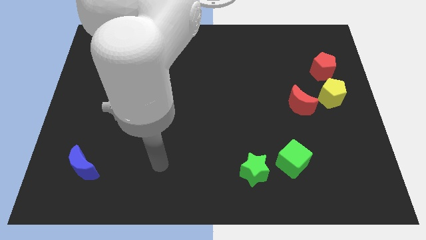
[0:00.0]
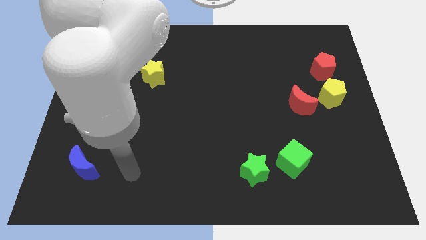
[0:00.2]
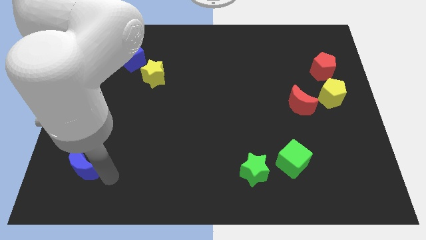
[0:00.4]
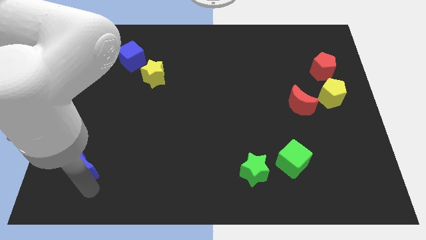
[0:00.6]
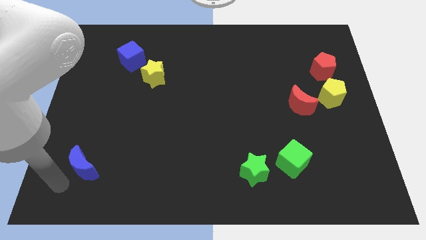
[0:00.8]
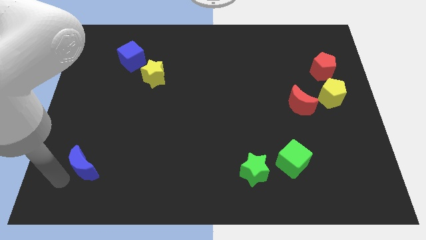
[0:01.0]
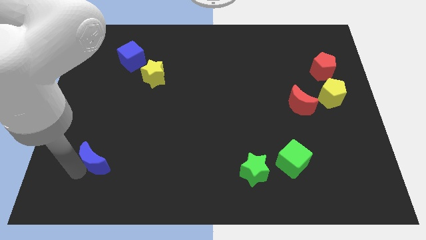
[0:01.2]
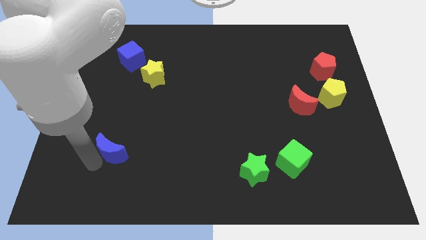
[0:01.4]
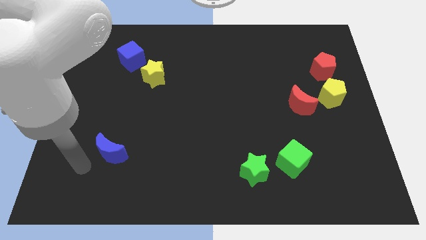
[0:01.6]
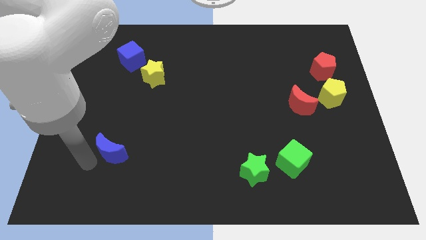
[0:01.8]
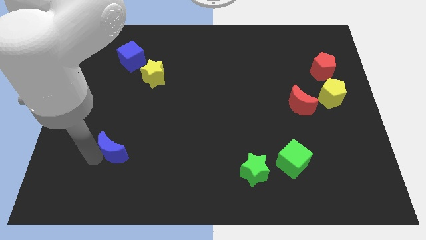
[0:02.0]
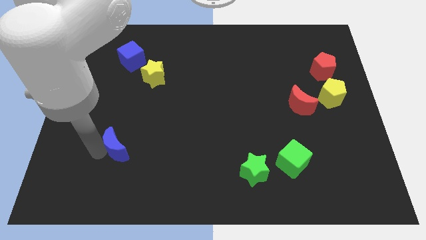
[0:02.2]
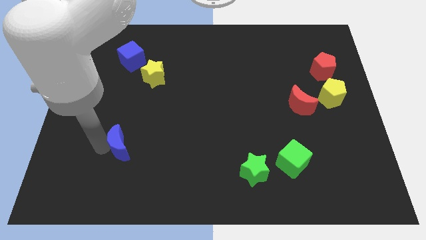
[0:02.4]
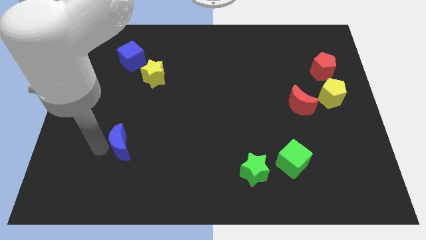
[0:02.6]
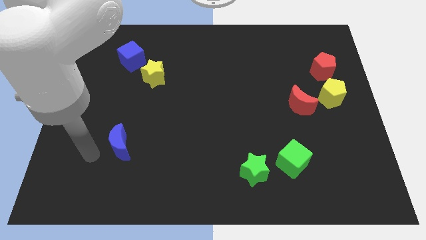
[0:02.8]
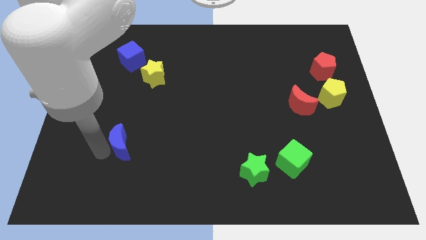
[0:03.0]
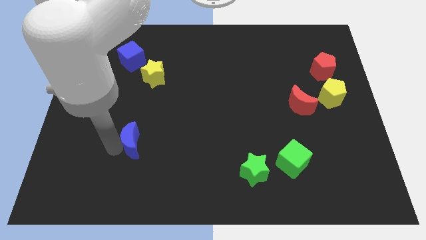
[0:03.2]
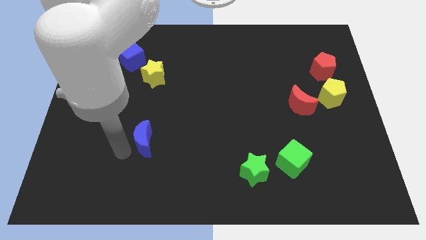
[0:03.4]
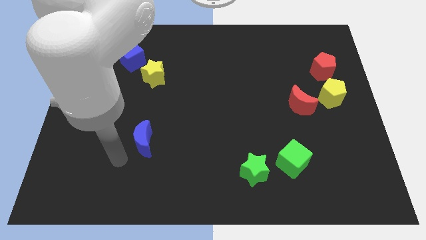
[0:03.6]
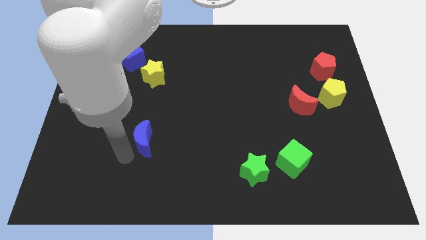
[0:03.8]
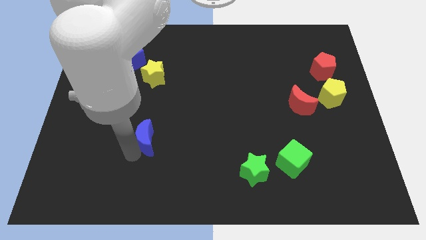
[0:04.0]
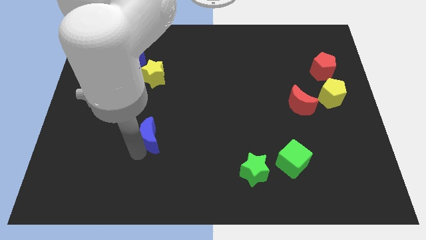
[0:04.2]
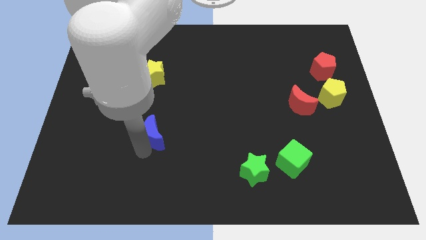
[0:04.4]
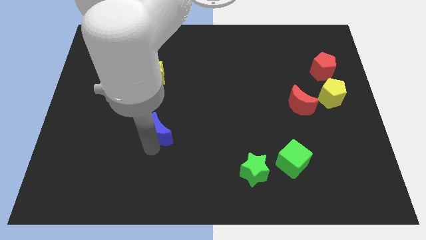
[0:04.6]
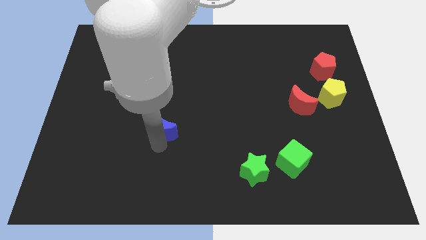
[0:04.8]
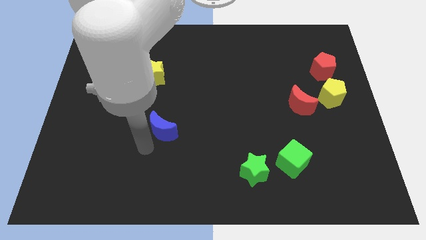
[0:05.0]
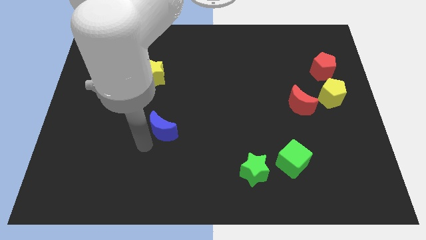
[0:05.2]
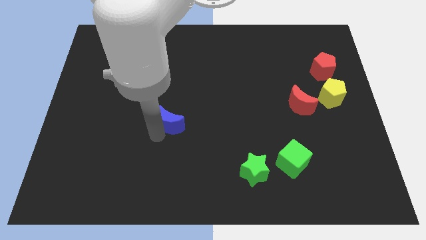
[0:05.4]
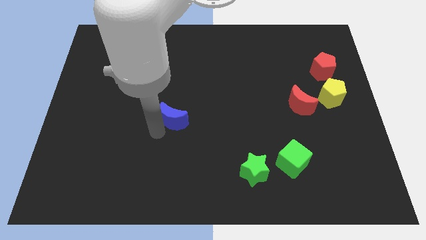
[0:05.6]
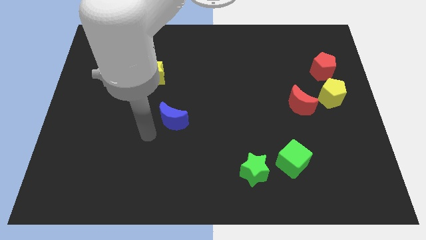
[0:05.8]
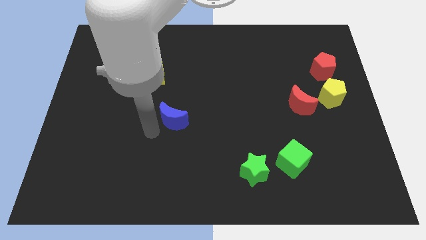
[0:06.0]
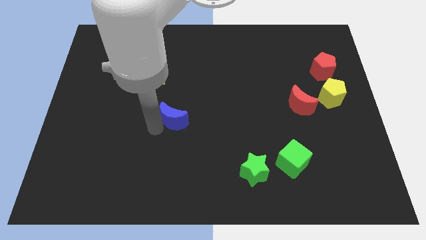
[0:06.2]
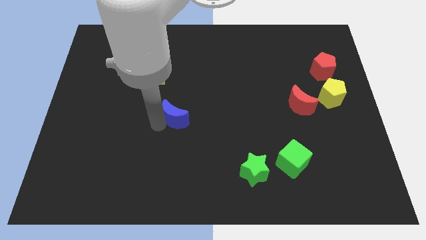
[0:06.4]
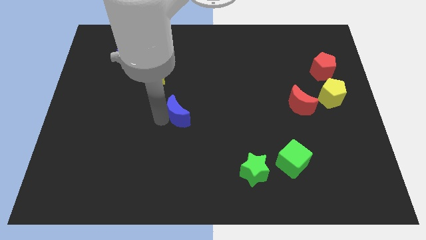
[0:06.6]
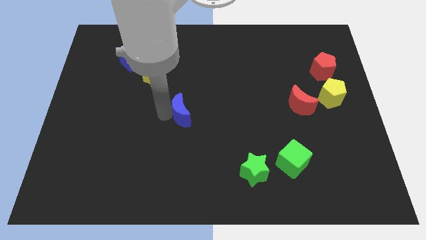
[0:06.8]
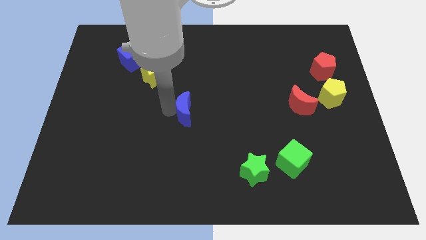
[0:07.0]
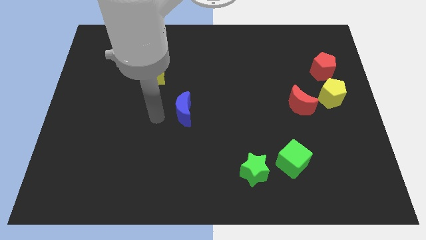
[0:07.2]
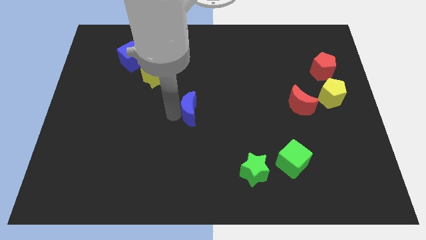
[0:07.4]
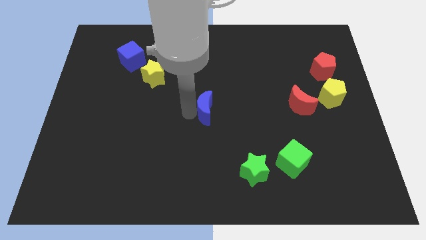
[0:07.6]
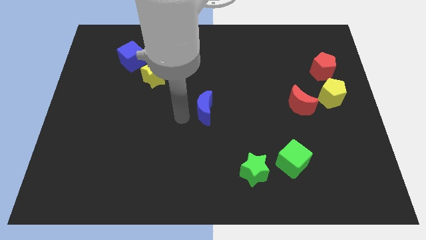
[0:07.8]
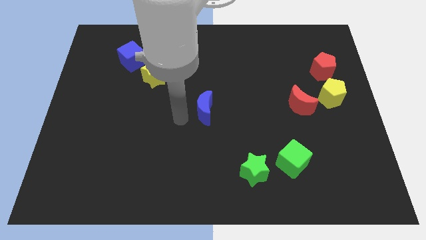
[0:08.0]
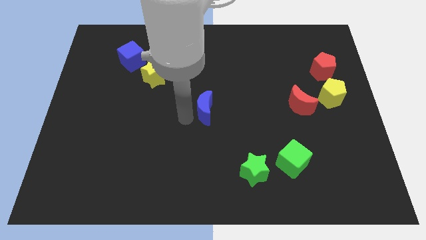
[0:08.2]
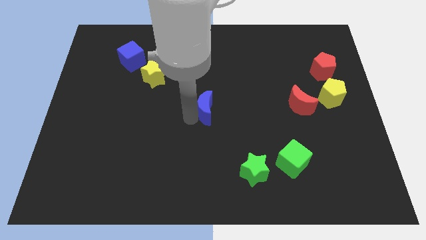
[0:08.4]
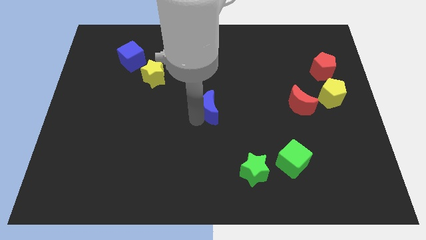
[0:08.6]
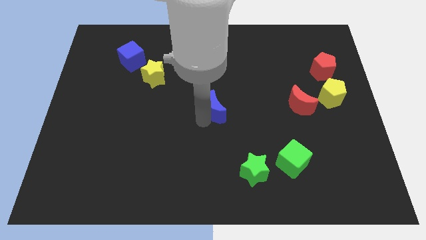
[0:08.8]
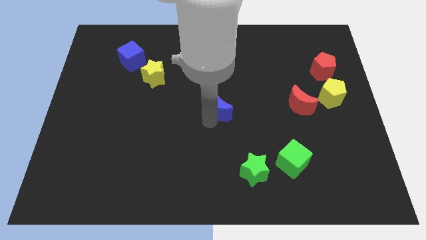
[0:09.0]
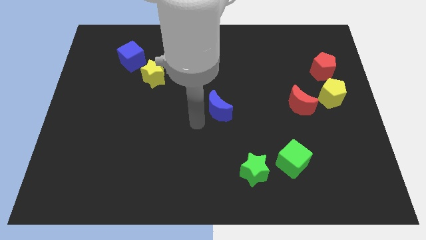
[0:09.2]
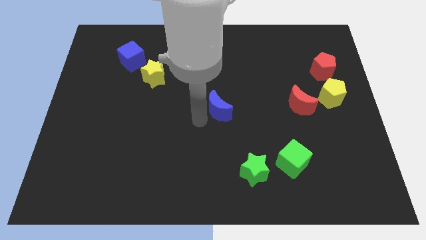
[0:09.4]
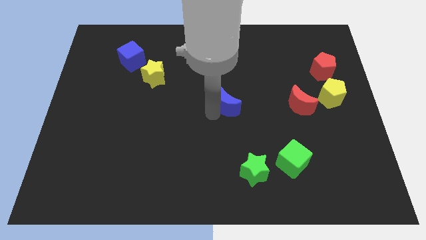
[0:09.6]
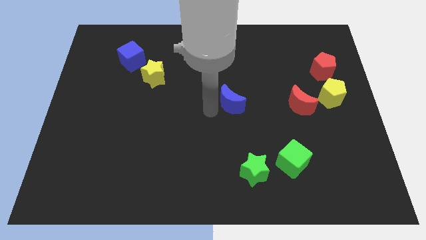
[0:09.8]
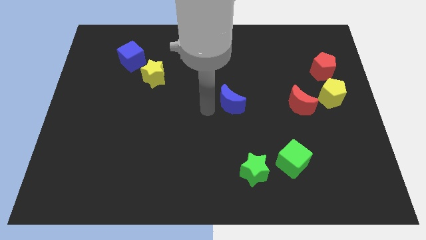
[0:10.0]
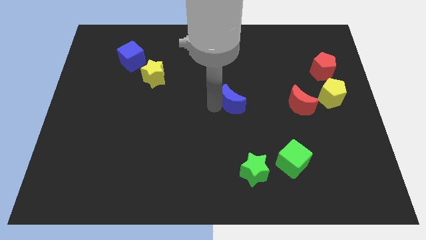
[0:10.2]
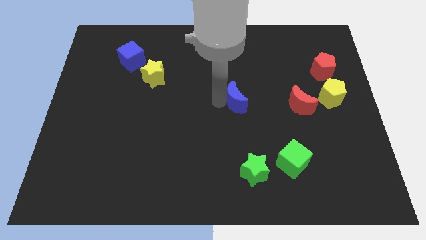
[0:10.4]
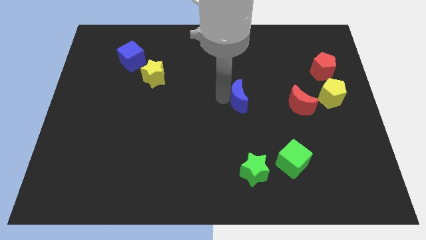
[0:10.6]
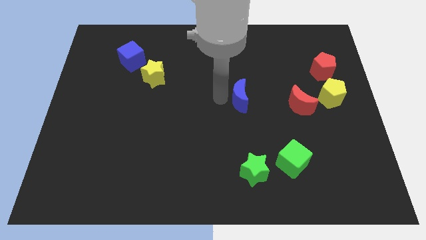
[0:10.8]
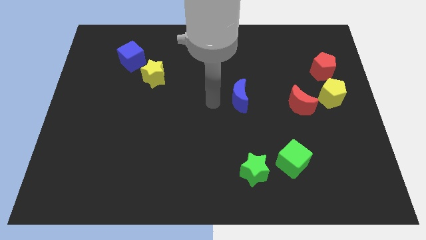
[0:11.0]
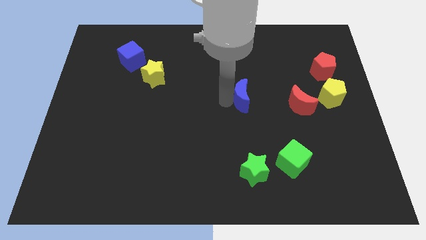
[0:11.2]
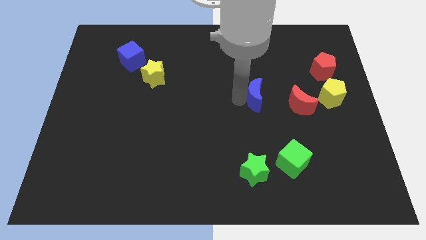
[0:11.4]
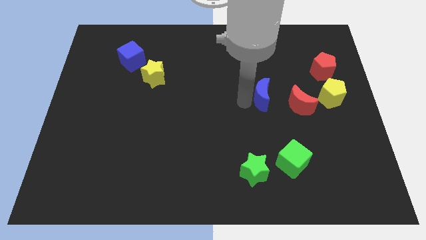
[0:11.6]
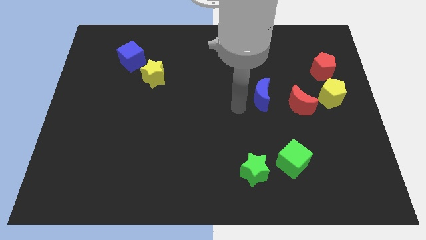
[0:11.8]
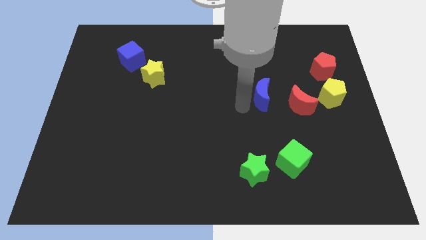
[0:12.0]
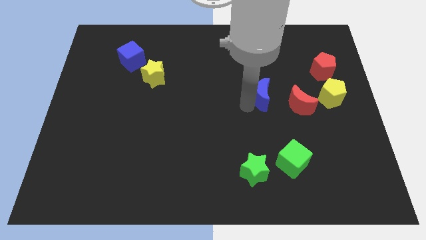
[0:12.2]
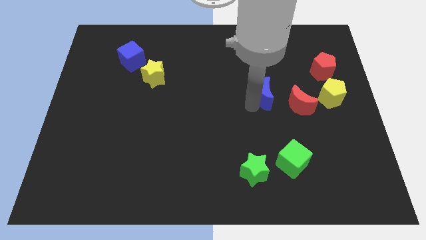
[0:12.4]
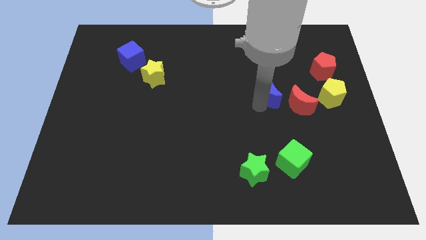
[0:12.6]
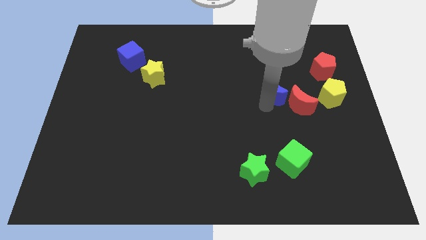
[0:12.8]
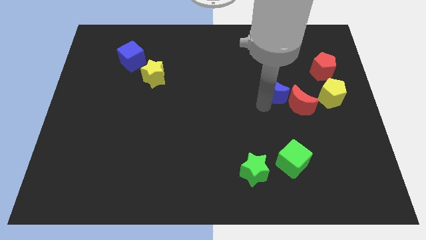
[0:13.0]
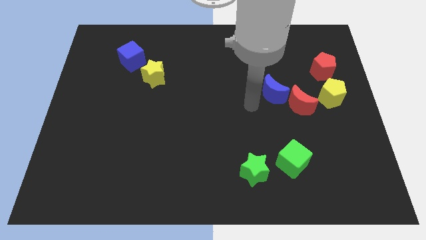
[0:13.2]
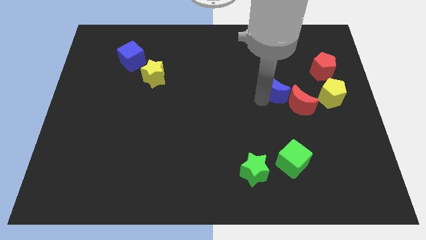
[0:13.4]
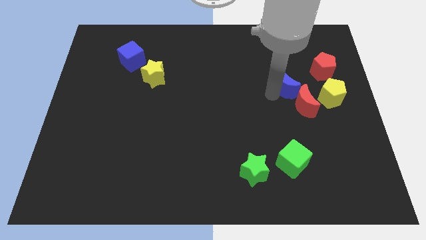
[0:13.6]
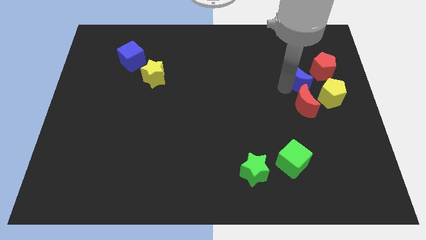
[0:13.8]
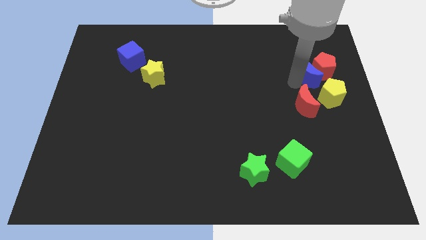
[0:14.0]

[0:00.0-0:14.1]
put the blue moon close to the red pentagon

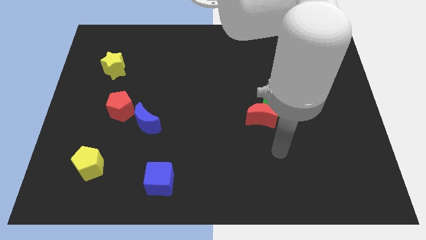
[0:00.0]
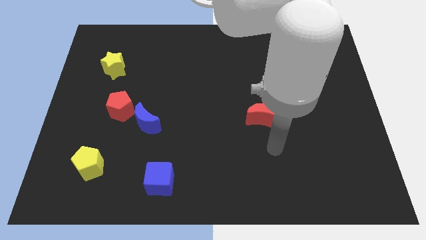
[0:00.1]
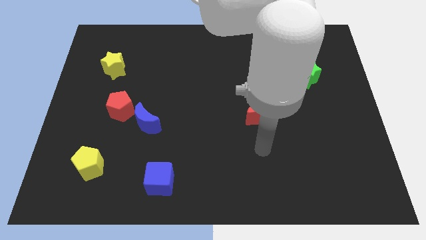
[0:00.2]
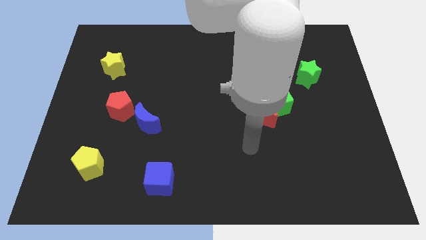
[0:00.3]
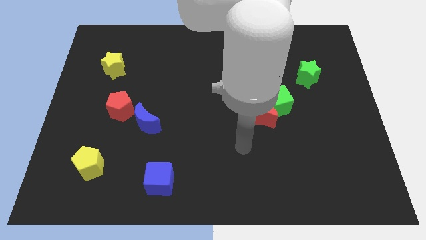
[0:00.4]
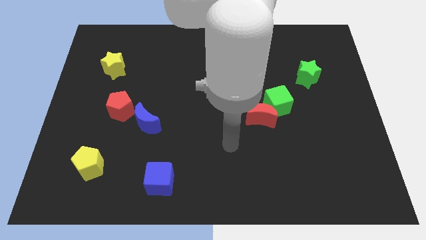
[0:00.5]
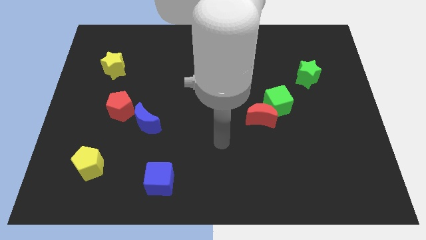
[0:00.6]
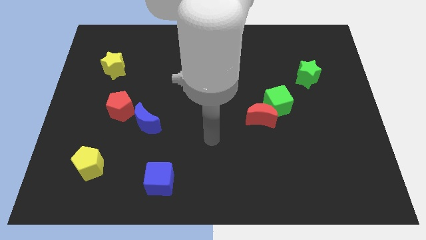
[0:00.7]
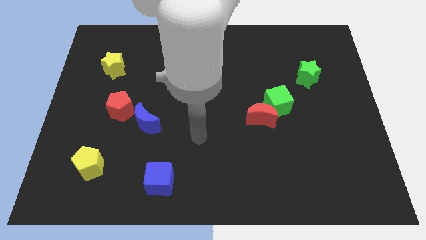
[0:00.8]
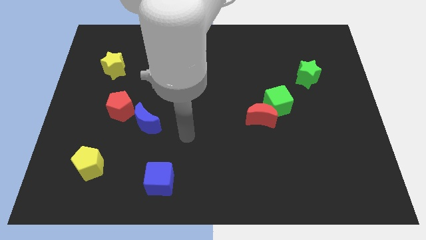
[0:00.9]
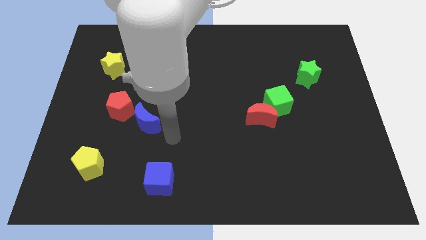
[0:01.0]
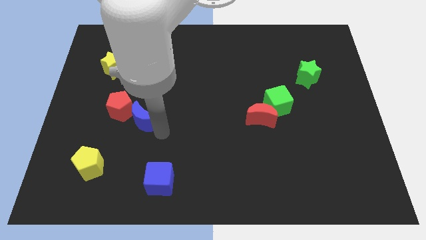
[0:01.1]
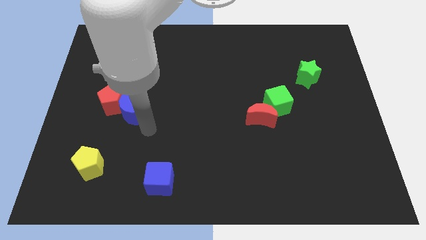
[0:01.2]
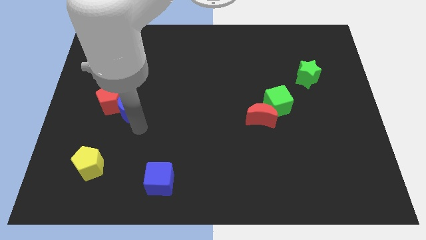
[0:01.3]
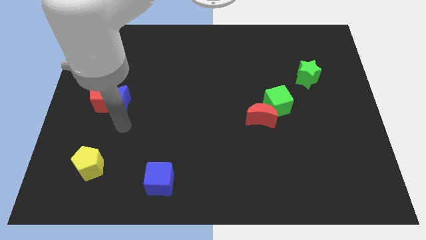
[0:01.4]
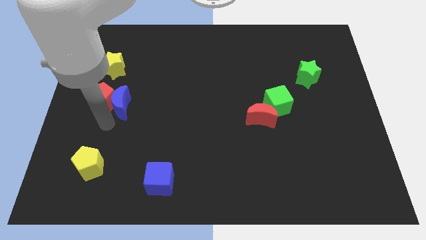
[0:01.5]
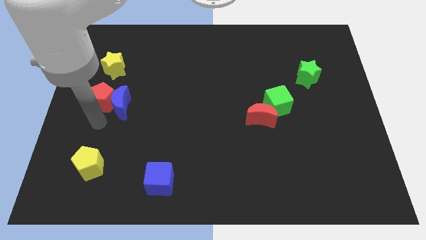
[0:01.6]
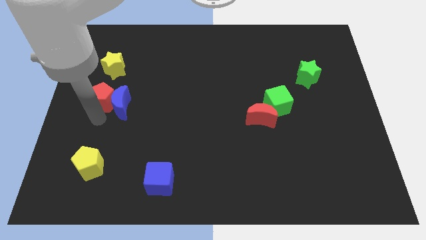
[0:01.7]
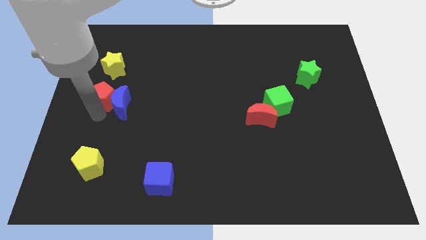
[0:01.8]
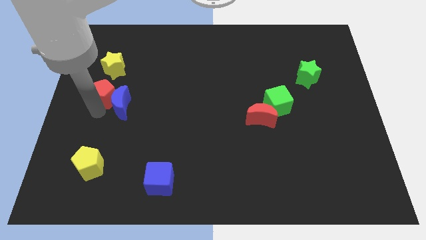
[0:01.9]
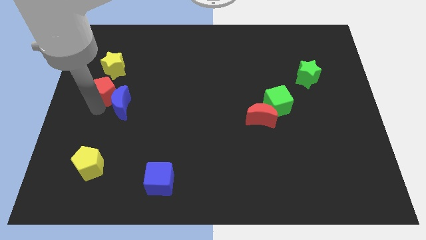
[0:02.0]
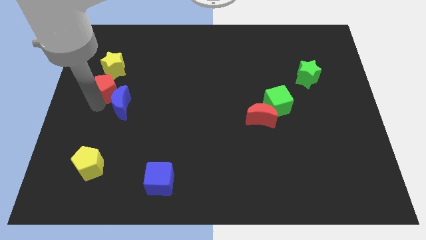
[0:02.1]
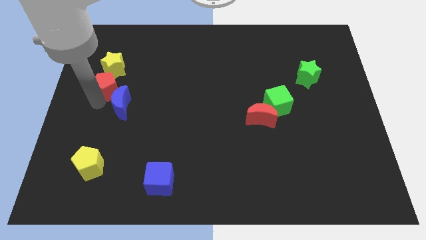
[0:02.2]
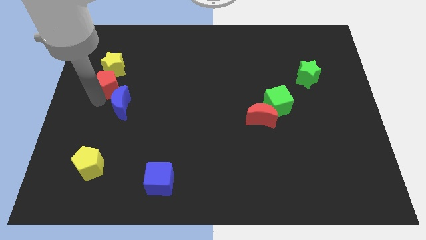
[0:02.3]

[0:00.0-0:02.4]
put the red pentagon next to the yellow star
